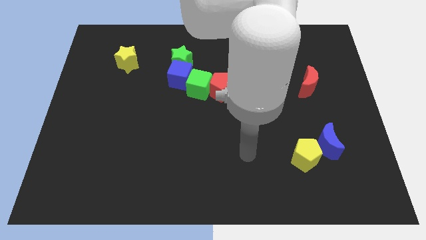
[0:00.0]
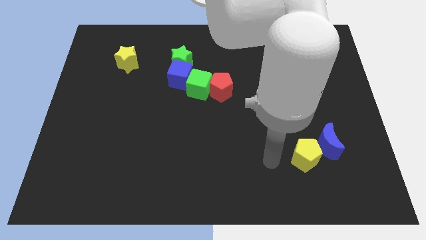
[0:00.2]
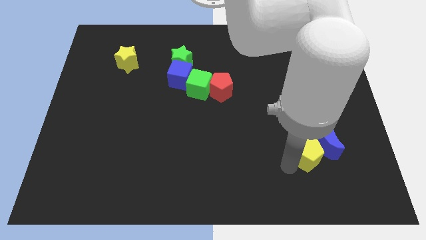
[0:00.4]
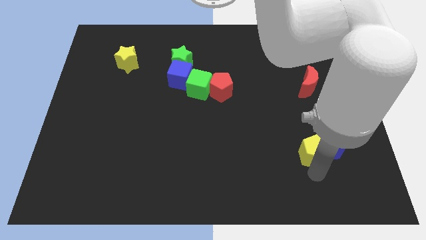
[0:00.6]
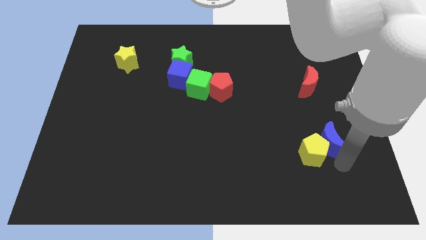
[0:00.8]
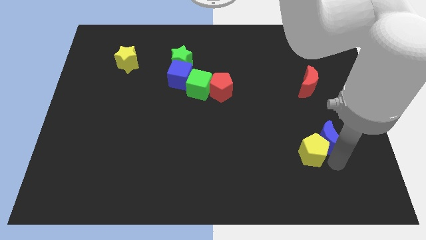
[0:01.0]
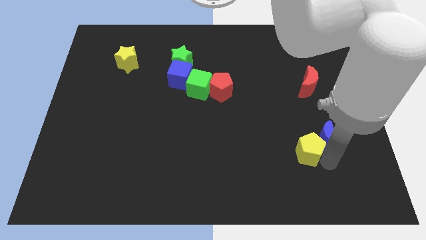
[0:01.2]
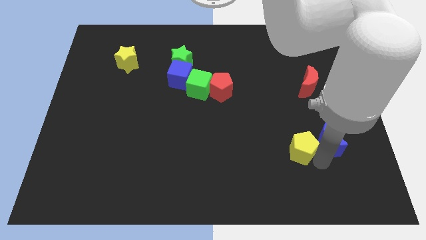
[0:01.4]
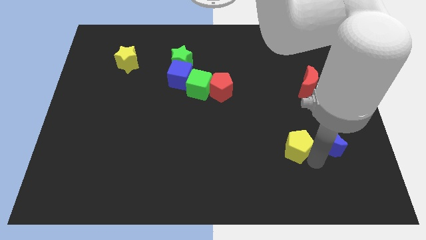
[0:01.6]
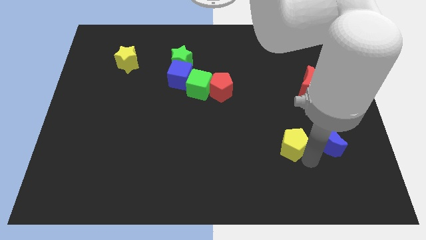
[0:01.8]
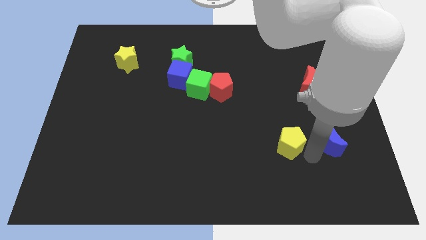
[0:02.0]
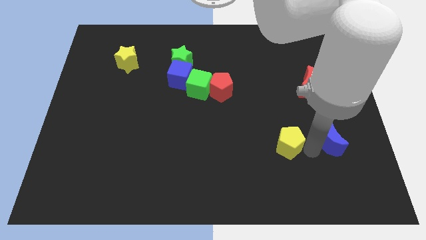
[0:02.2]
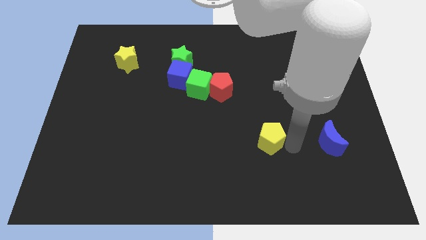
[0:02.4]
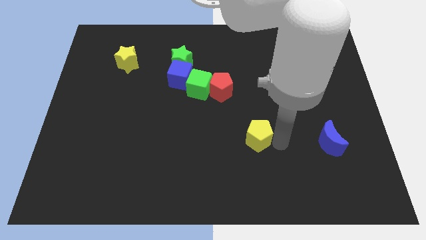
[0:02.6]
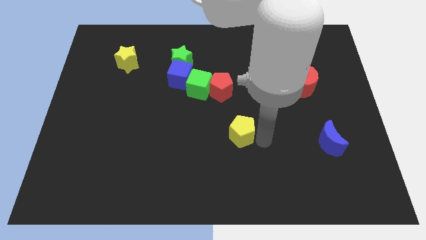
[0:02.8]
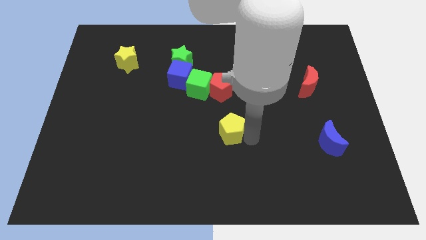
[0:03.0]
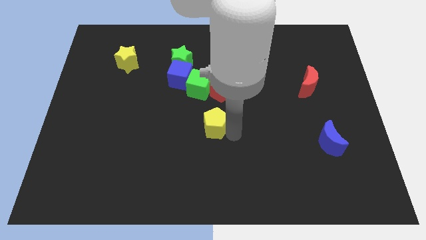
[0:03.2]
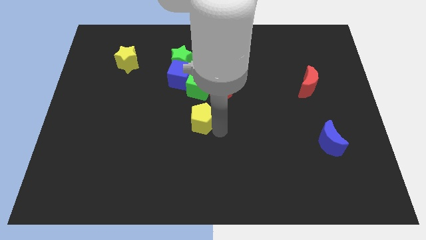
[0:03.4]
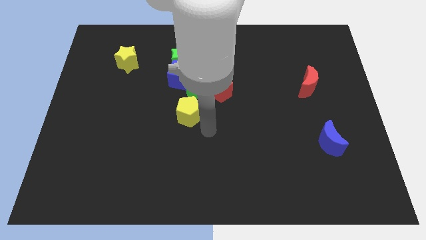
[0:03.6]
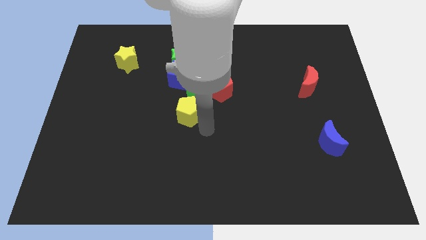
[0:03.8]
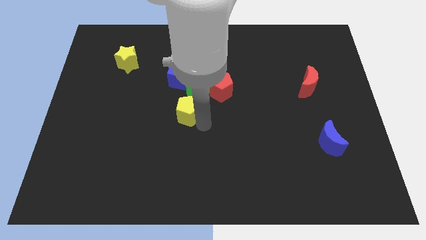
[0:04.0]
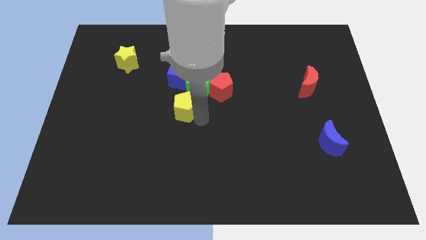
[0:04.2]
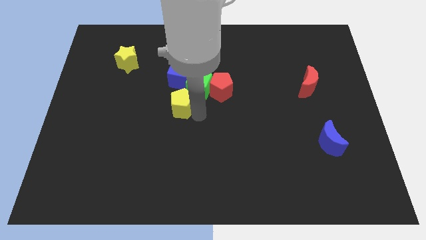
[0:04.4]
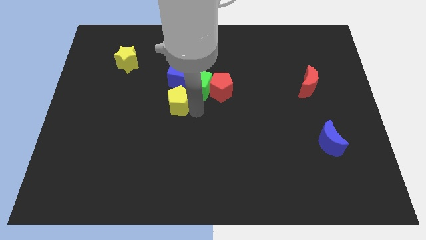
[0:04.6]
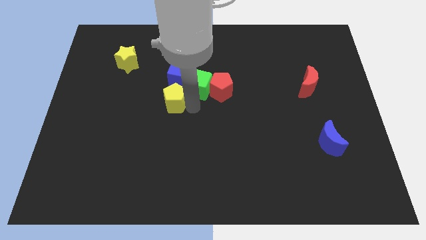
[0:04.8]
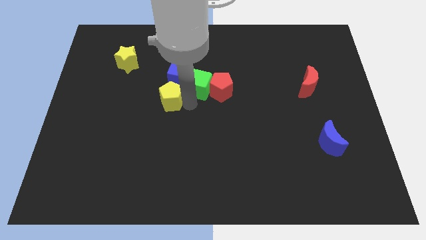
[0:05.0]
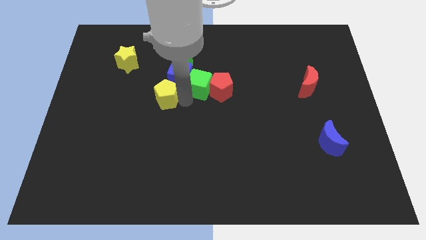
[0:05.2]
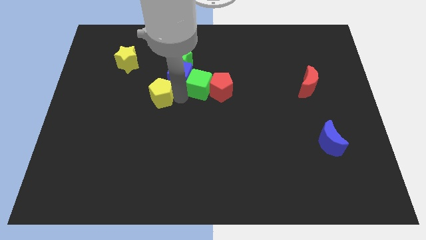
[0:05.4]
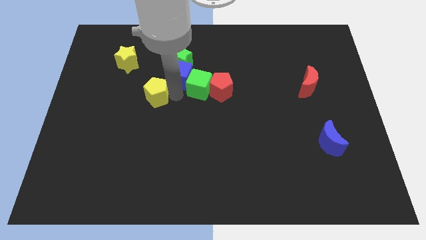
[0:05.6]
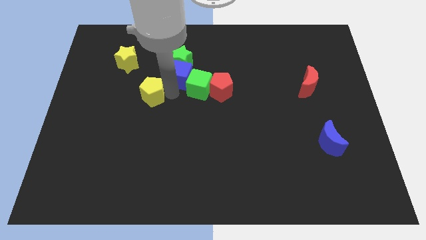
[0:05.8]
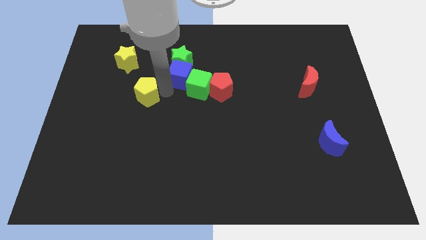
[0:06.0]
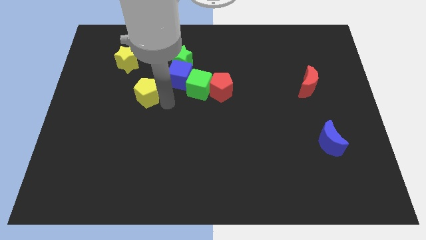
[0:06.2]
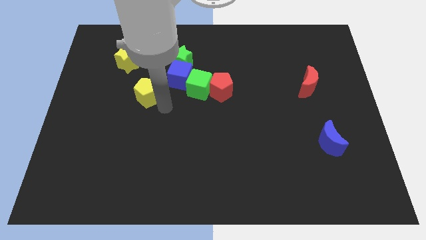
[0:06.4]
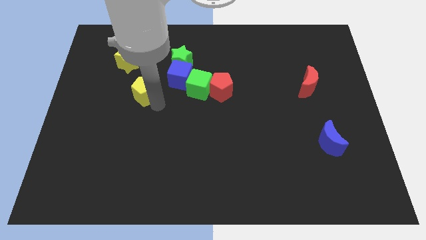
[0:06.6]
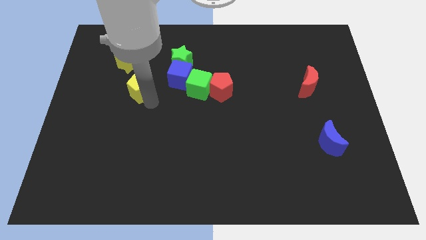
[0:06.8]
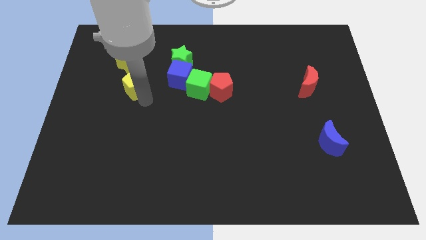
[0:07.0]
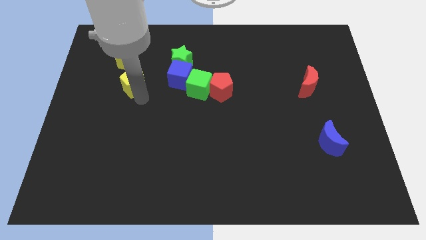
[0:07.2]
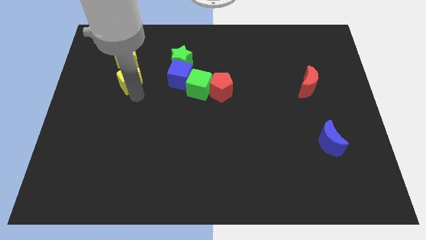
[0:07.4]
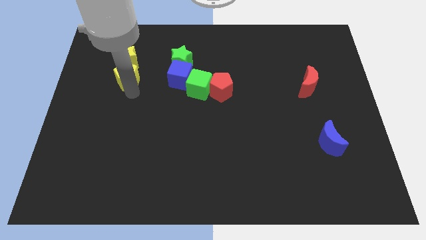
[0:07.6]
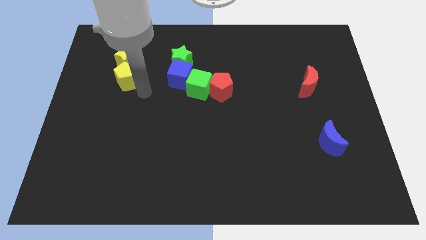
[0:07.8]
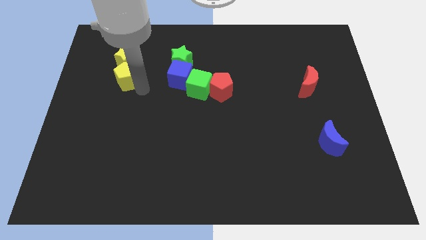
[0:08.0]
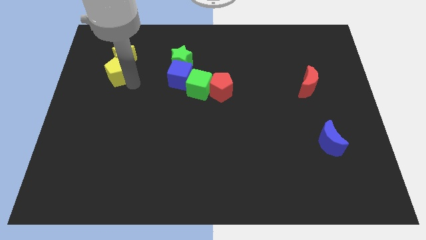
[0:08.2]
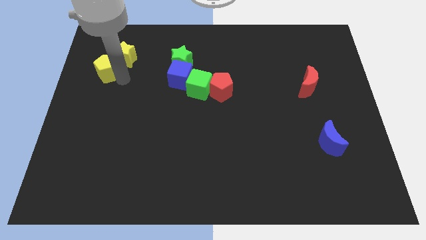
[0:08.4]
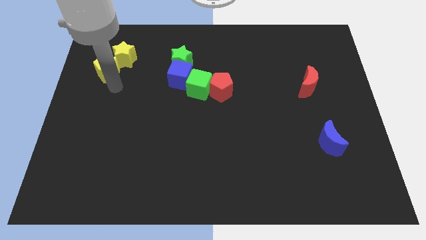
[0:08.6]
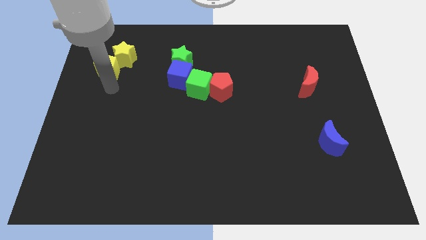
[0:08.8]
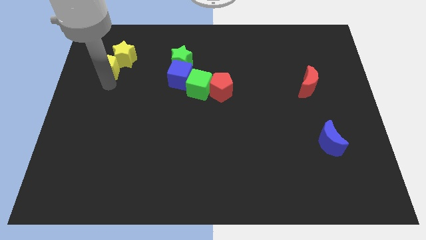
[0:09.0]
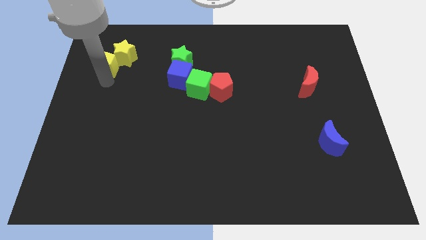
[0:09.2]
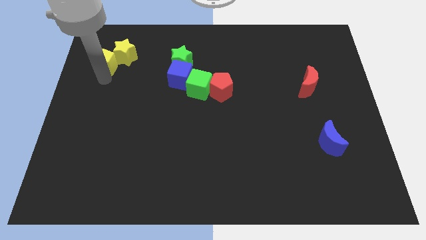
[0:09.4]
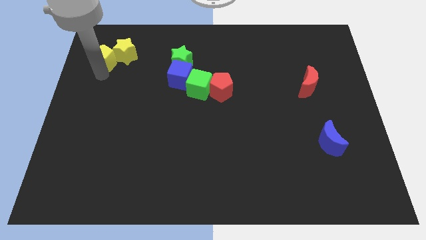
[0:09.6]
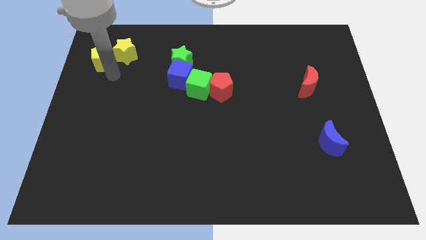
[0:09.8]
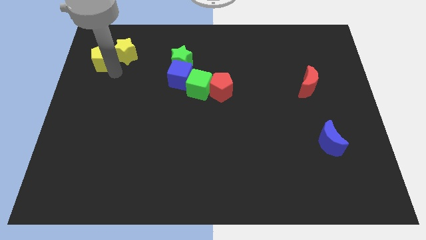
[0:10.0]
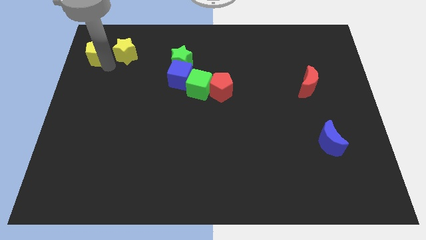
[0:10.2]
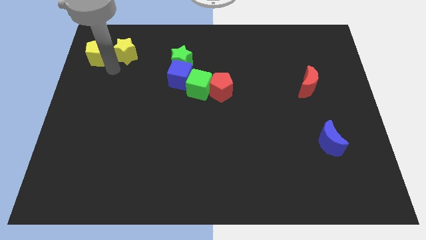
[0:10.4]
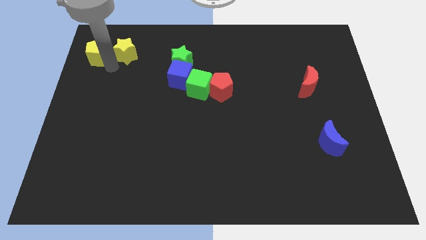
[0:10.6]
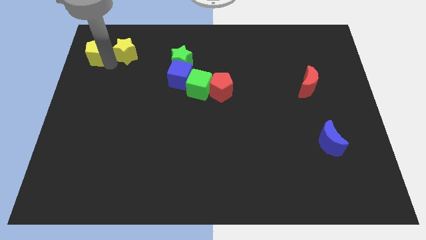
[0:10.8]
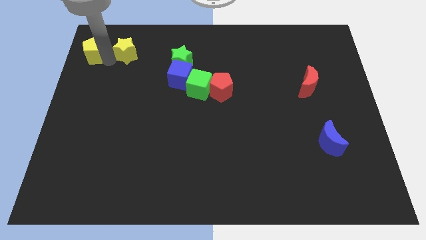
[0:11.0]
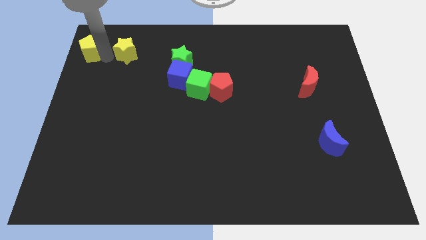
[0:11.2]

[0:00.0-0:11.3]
push the yellow pentagon to the upper left corner
